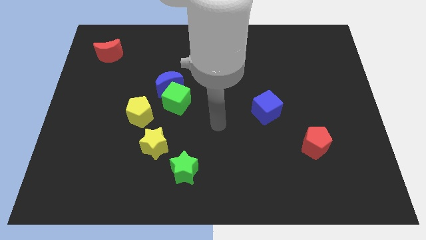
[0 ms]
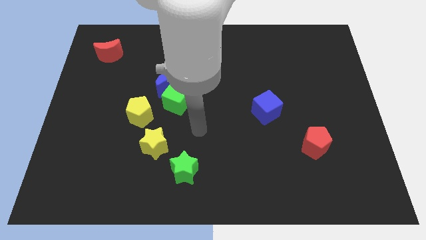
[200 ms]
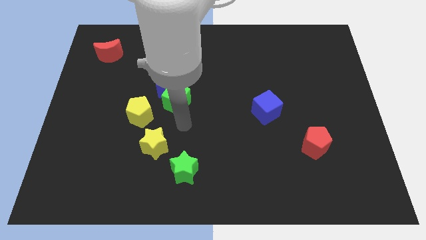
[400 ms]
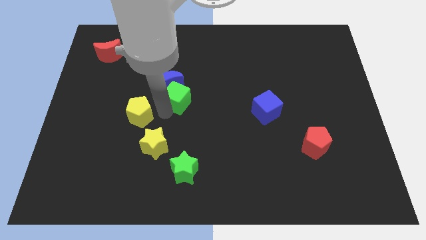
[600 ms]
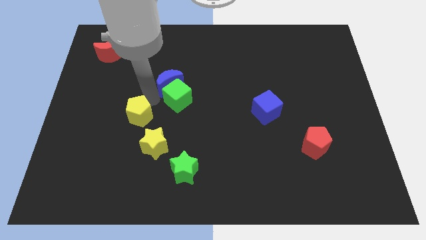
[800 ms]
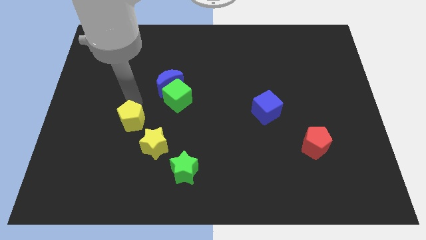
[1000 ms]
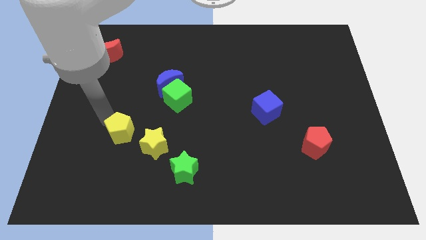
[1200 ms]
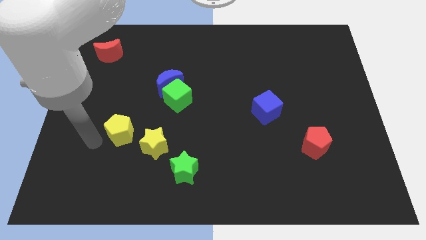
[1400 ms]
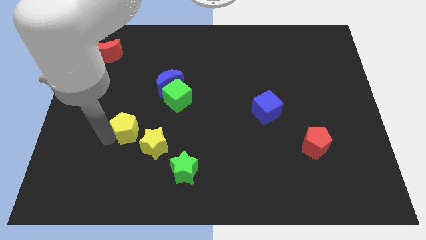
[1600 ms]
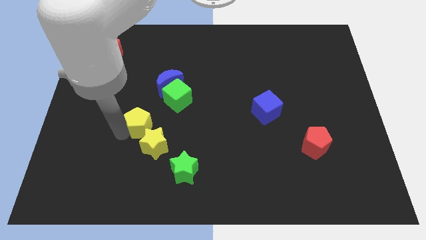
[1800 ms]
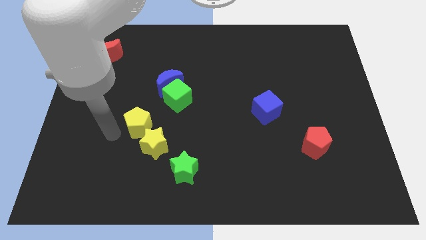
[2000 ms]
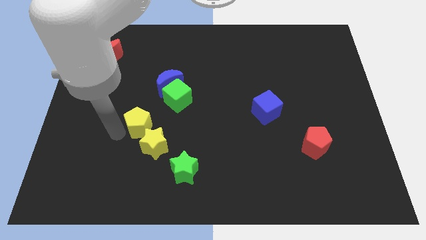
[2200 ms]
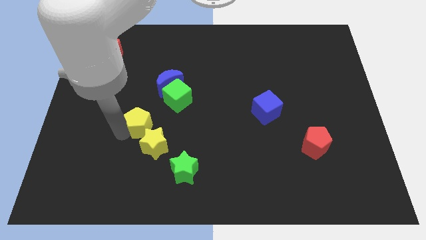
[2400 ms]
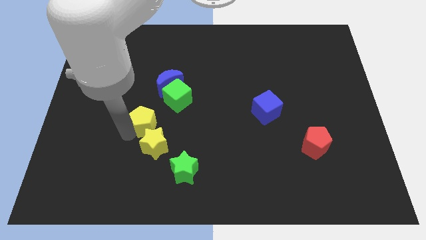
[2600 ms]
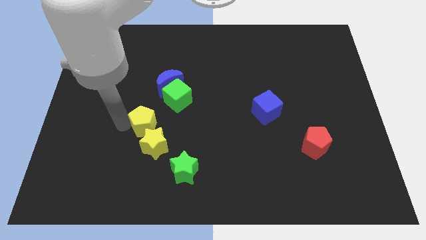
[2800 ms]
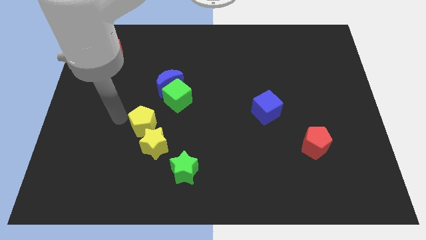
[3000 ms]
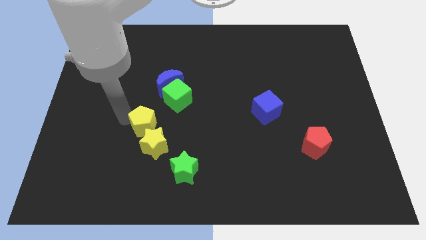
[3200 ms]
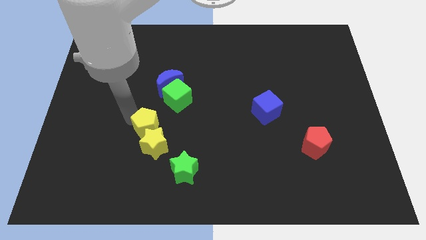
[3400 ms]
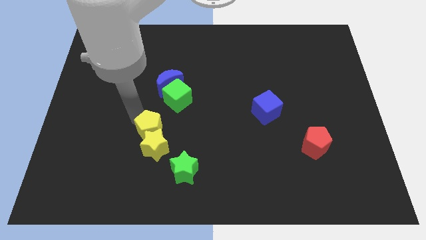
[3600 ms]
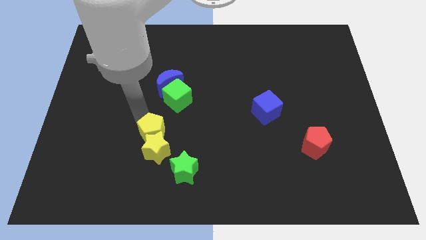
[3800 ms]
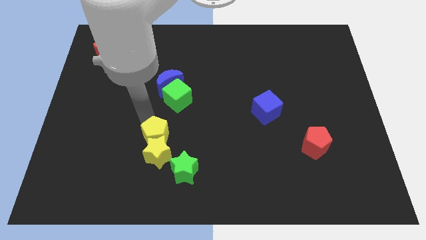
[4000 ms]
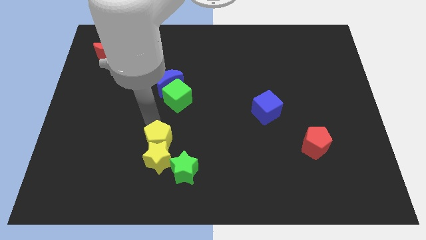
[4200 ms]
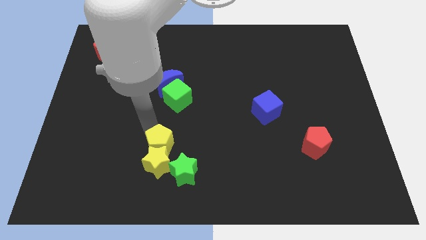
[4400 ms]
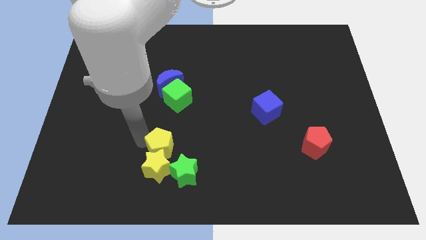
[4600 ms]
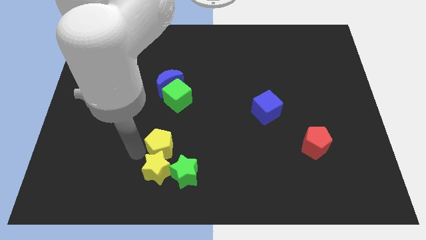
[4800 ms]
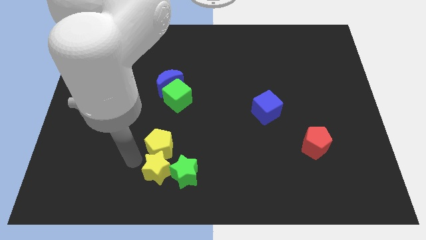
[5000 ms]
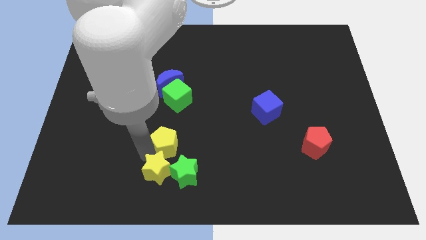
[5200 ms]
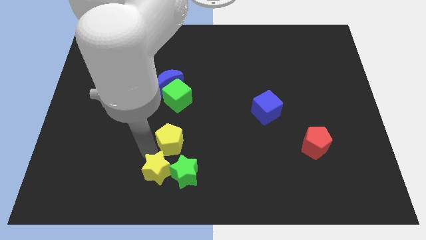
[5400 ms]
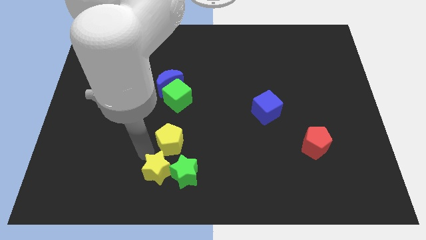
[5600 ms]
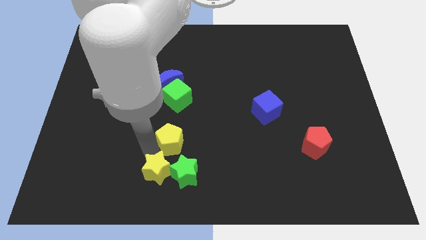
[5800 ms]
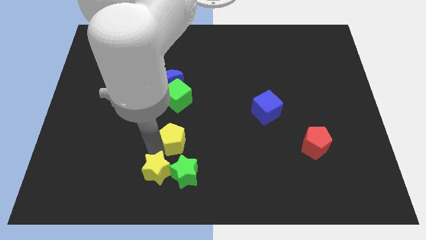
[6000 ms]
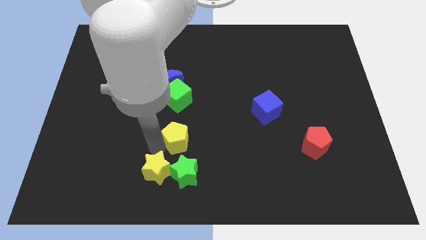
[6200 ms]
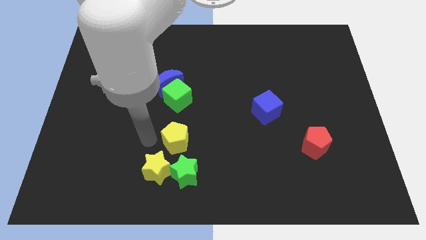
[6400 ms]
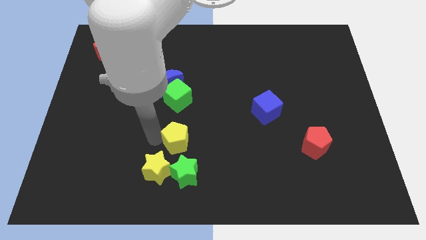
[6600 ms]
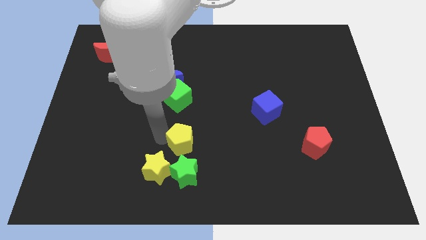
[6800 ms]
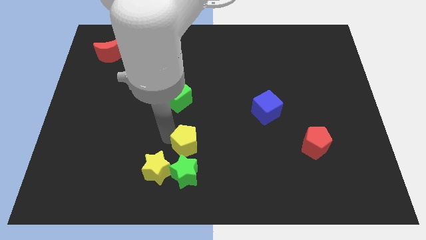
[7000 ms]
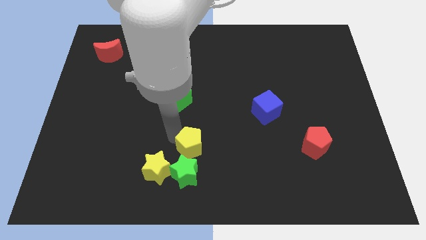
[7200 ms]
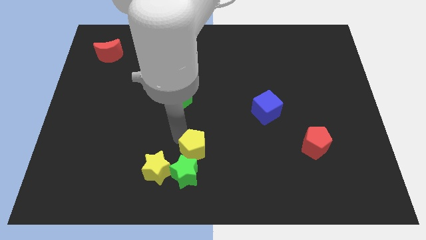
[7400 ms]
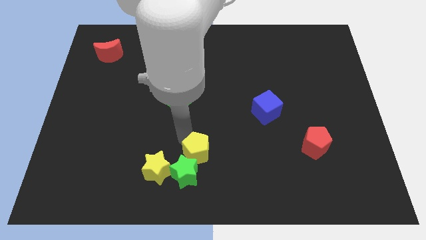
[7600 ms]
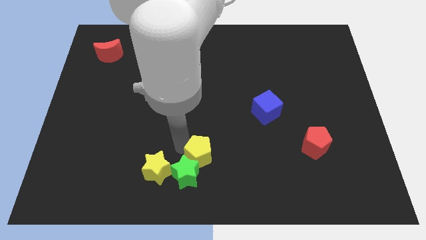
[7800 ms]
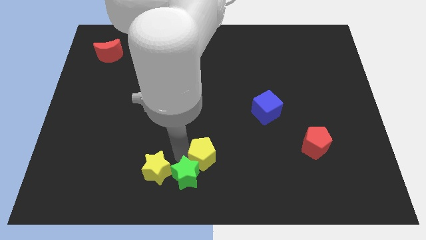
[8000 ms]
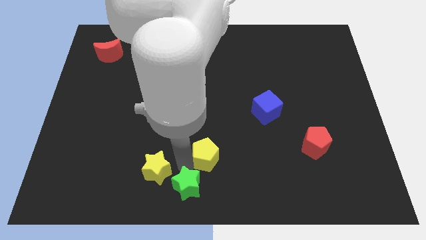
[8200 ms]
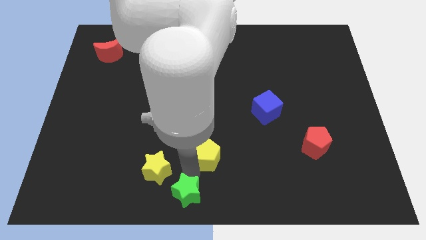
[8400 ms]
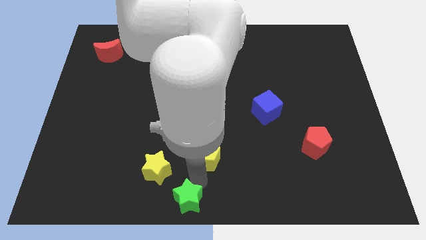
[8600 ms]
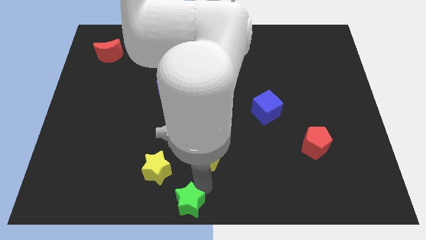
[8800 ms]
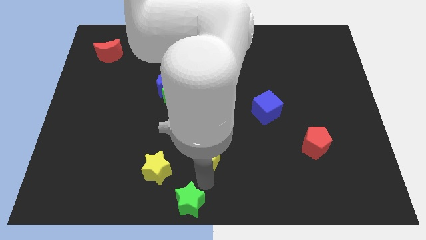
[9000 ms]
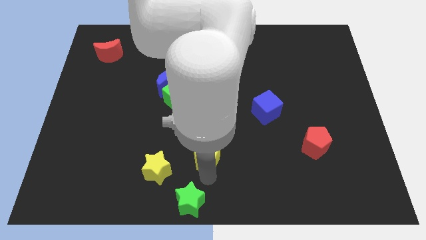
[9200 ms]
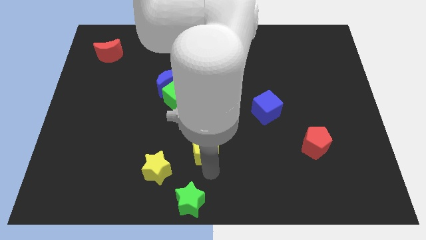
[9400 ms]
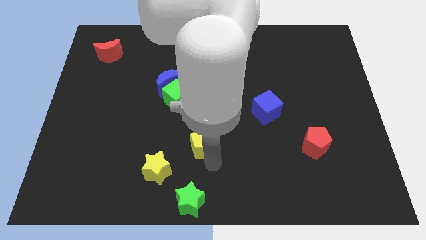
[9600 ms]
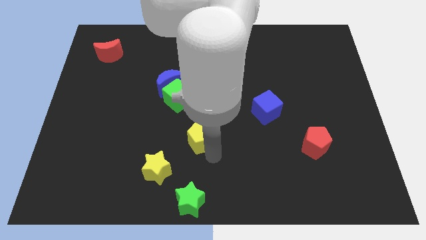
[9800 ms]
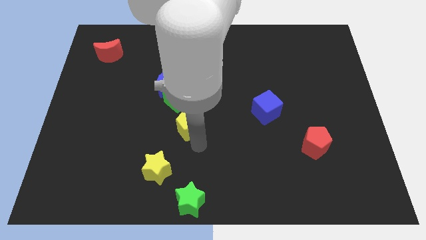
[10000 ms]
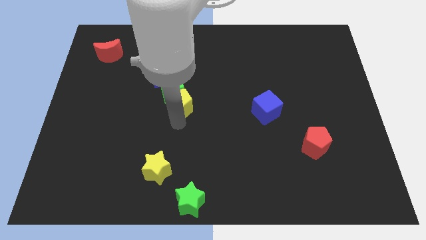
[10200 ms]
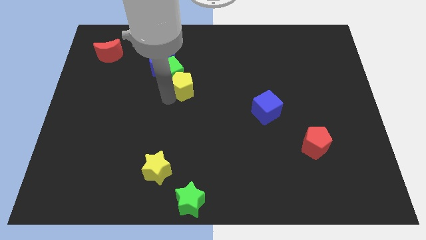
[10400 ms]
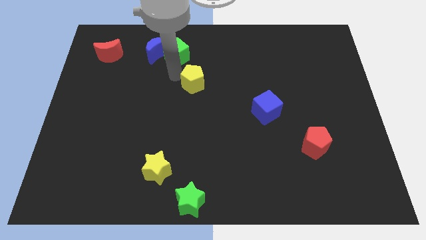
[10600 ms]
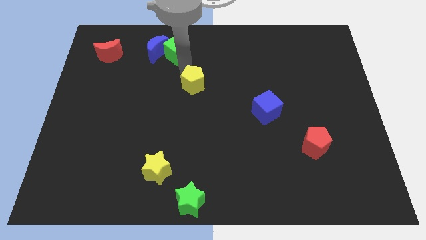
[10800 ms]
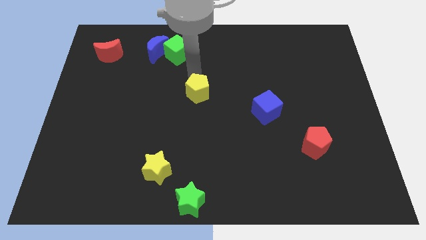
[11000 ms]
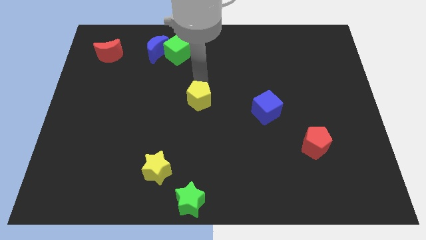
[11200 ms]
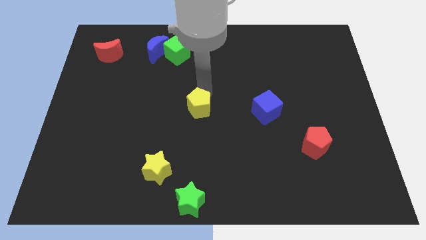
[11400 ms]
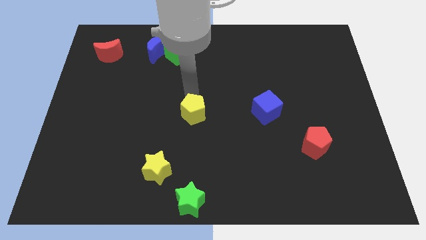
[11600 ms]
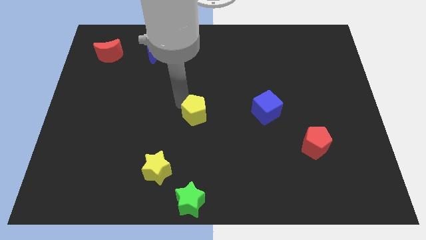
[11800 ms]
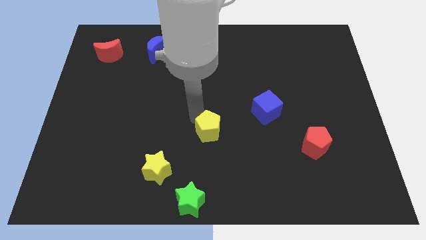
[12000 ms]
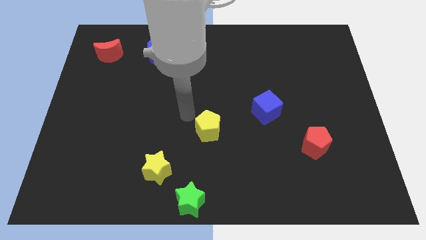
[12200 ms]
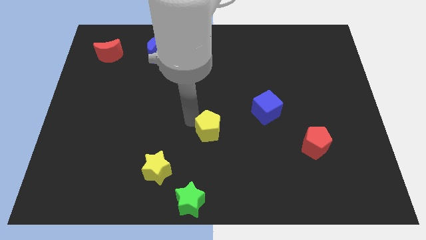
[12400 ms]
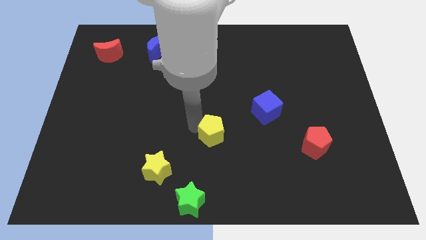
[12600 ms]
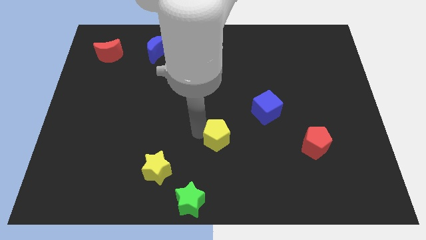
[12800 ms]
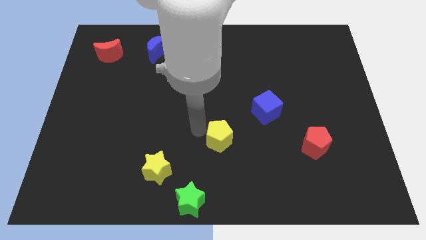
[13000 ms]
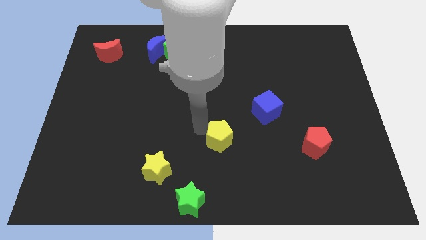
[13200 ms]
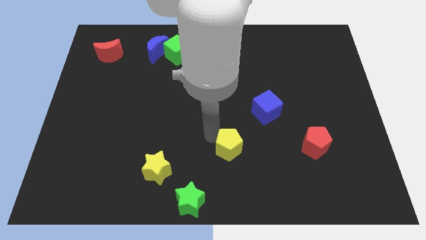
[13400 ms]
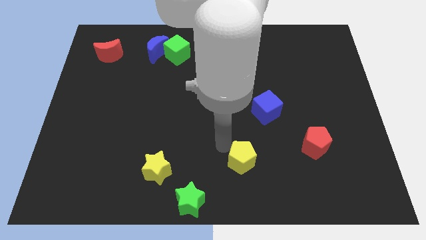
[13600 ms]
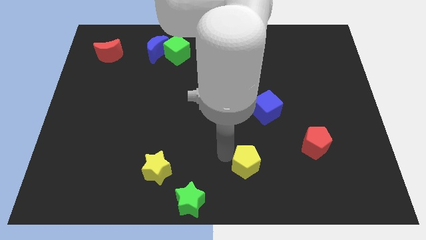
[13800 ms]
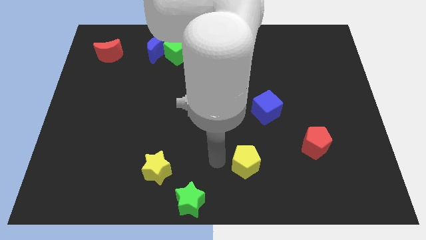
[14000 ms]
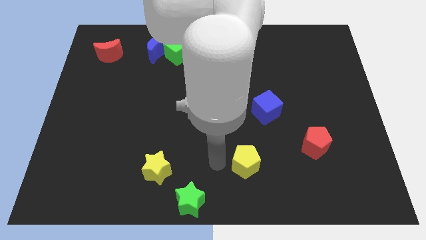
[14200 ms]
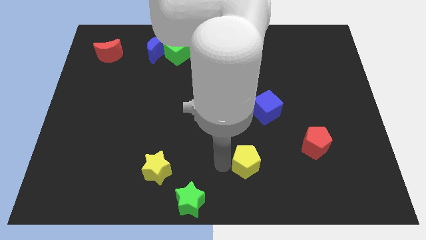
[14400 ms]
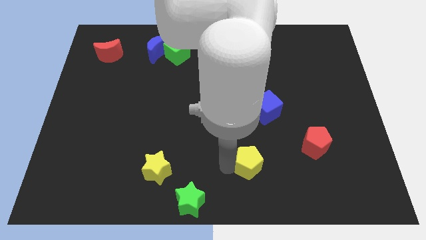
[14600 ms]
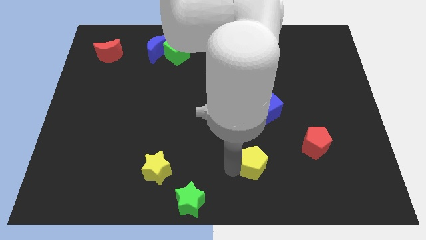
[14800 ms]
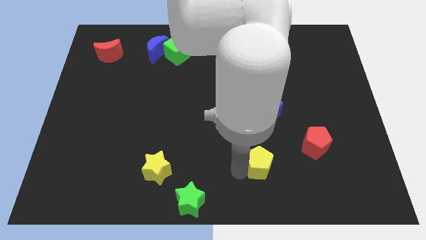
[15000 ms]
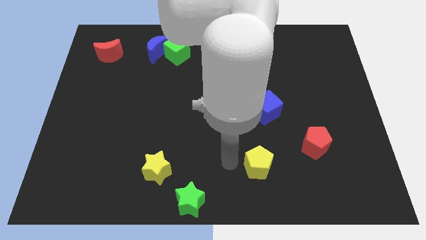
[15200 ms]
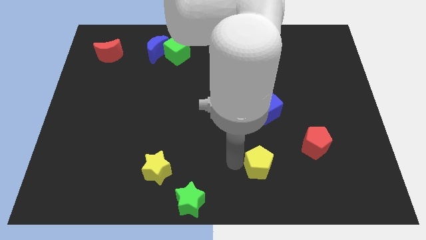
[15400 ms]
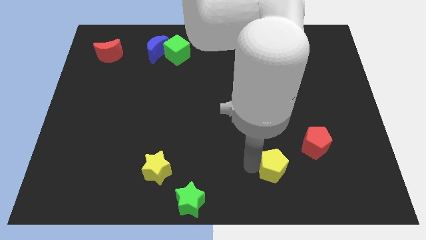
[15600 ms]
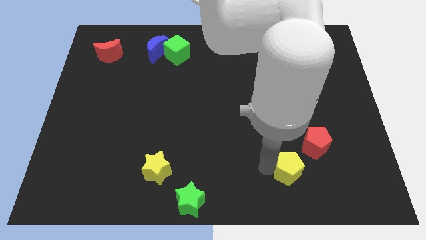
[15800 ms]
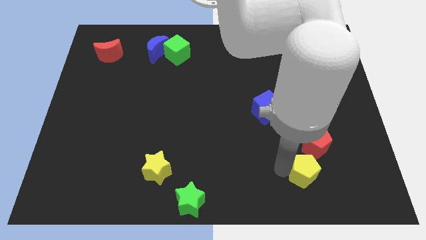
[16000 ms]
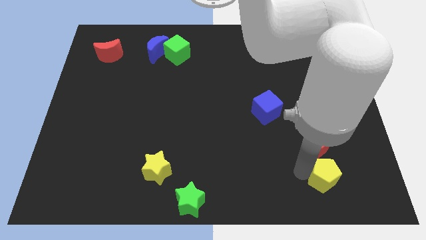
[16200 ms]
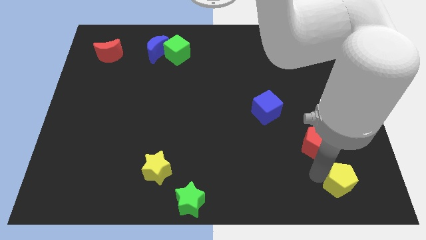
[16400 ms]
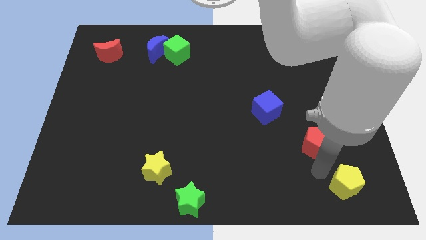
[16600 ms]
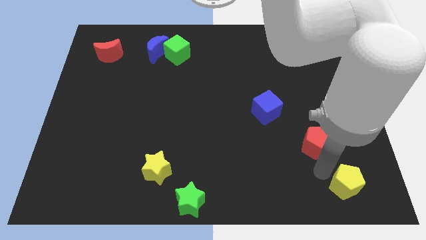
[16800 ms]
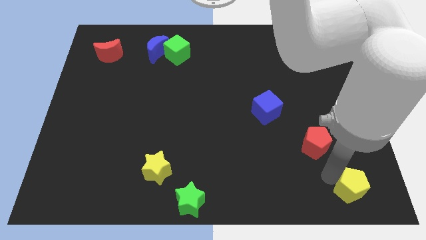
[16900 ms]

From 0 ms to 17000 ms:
slide the yellow pentagon to the bottom right corner
